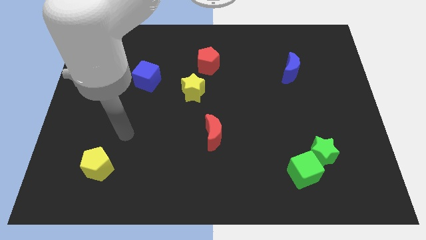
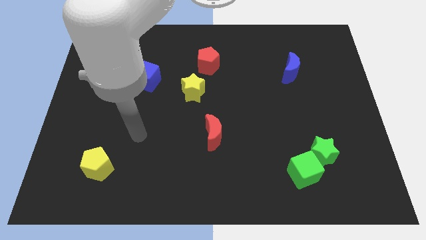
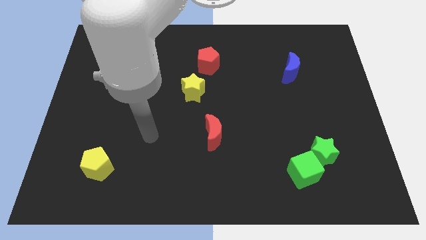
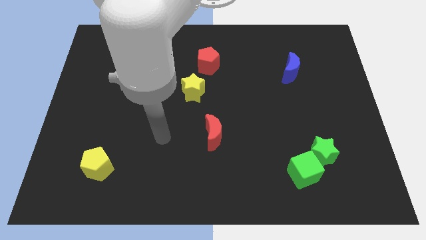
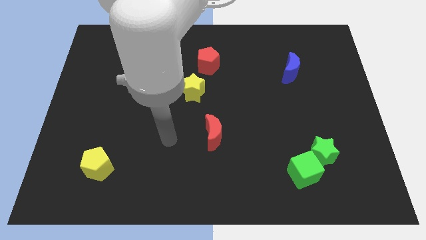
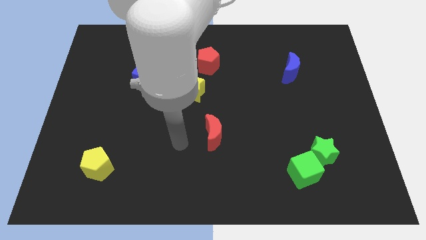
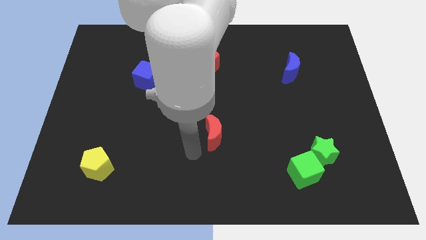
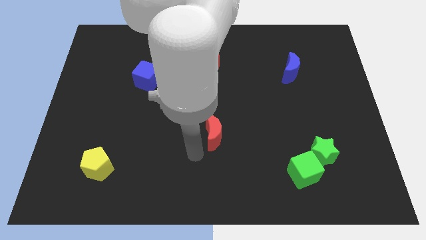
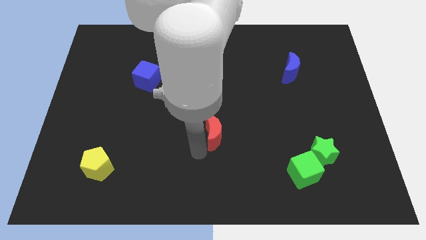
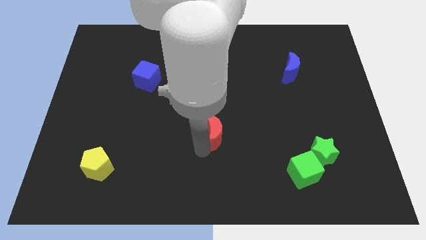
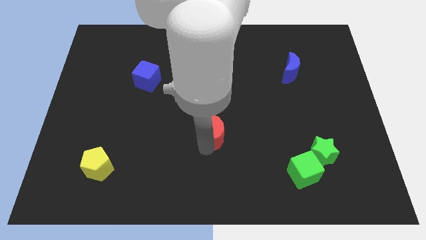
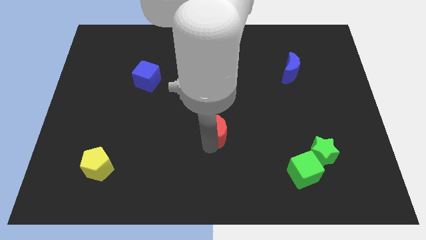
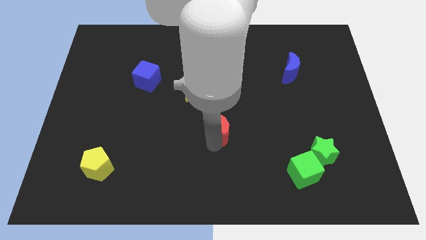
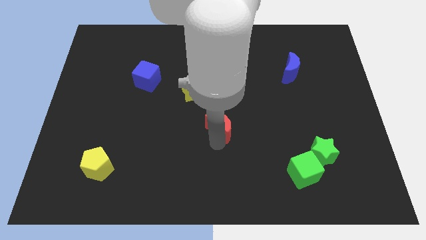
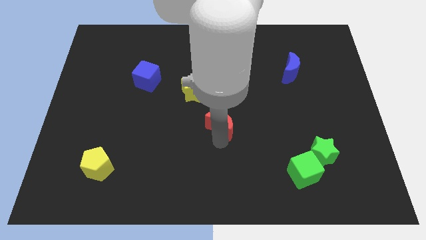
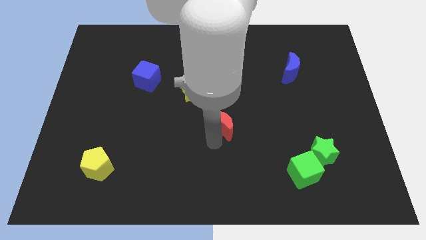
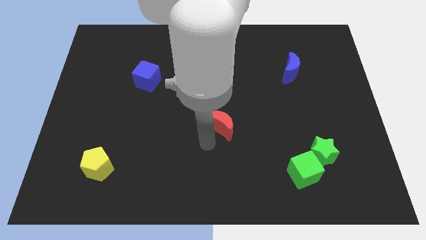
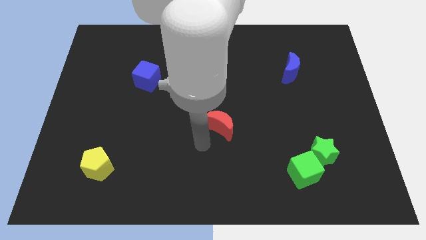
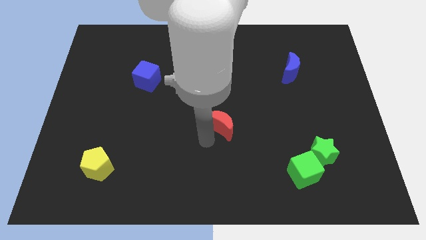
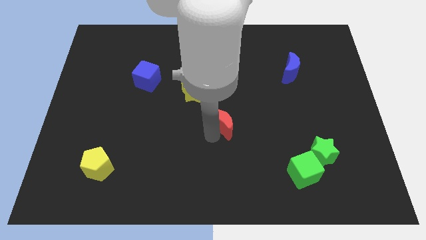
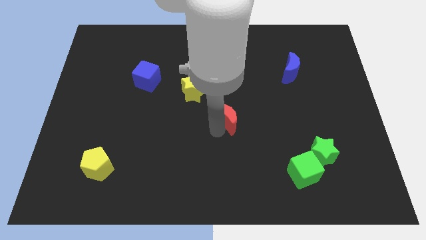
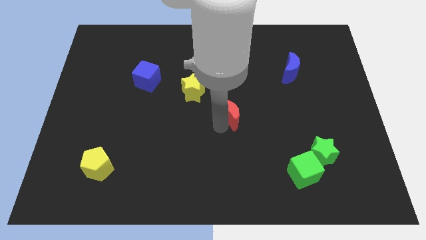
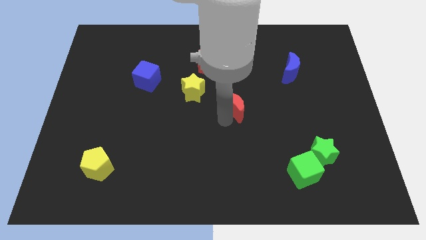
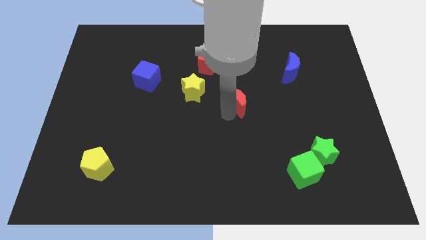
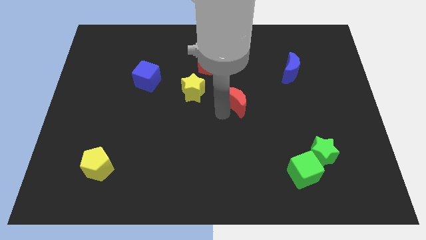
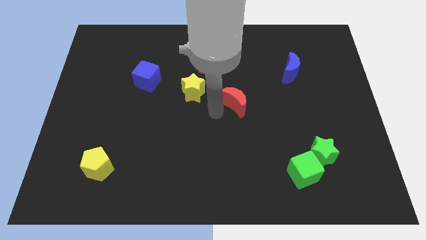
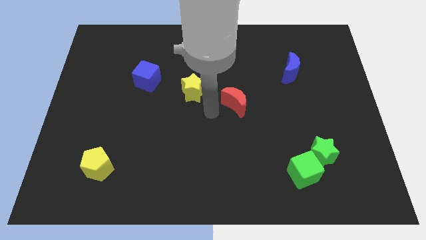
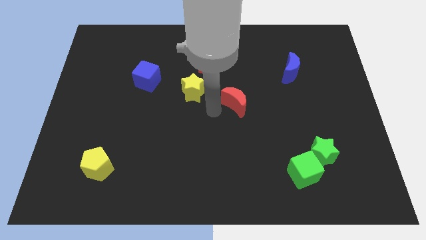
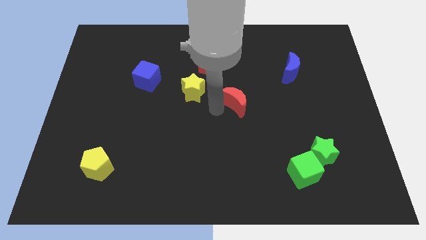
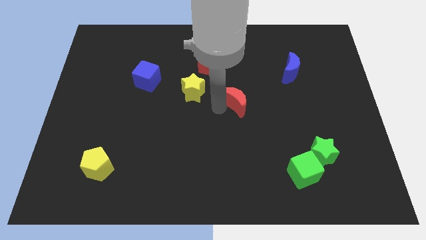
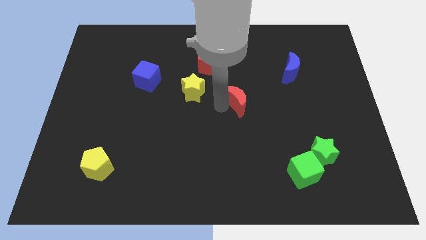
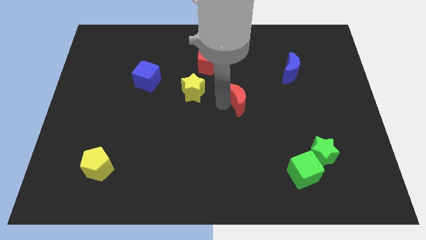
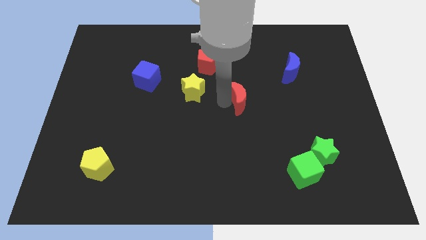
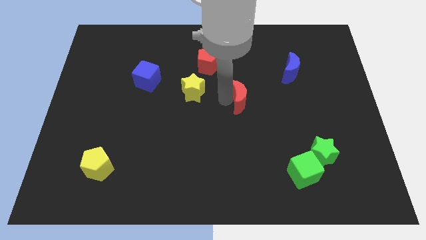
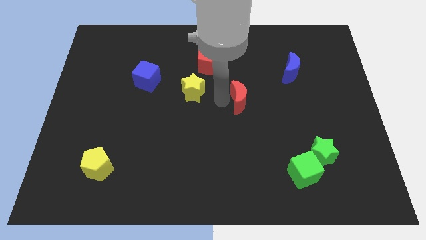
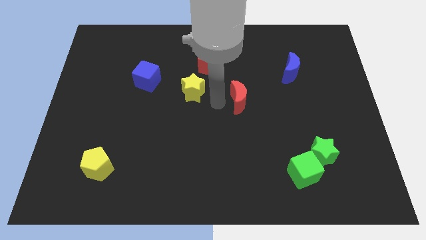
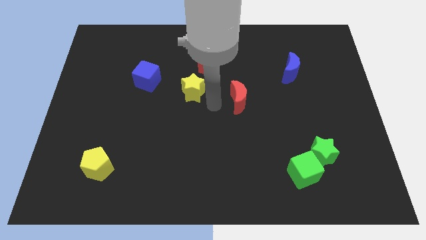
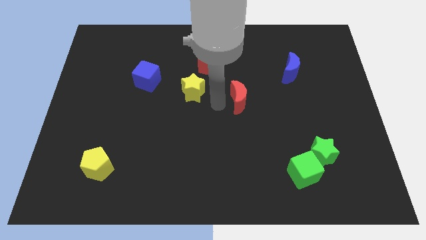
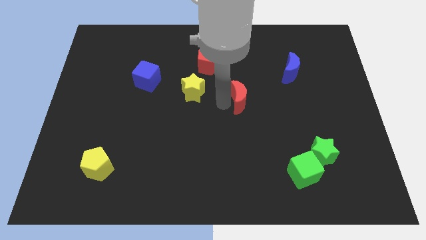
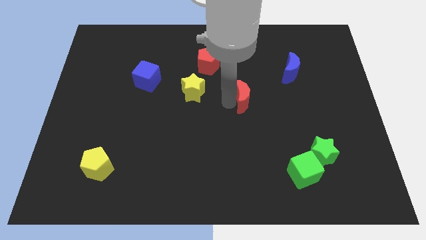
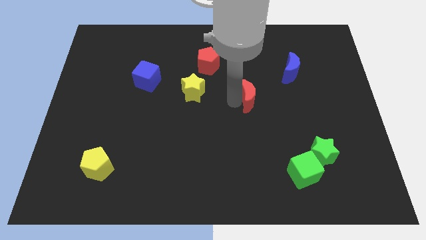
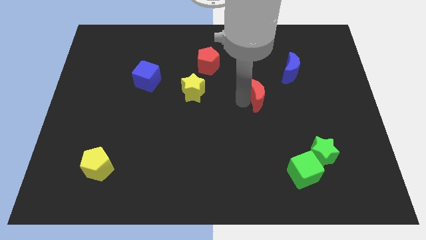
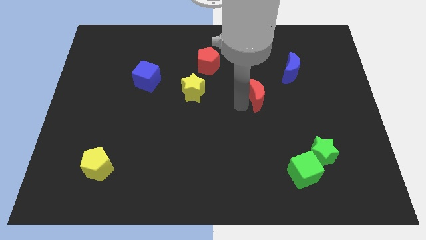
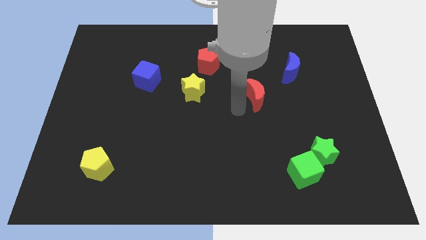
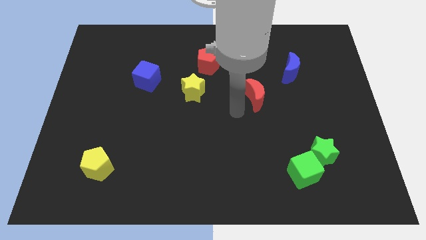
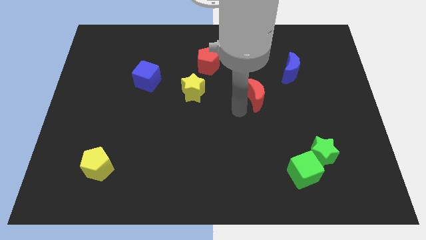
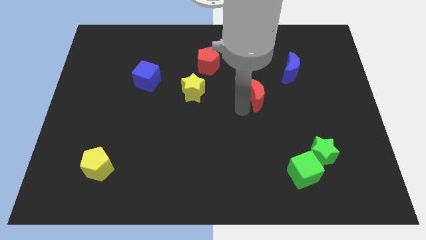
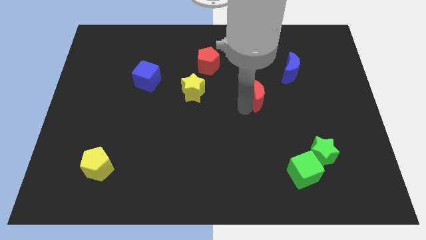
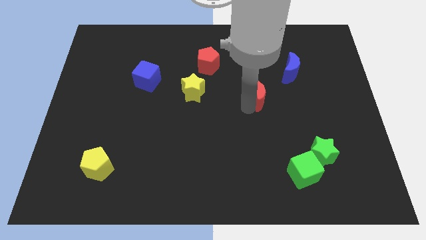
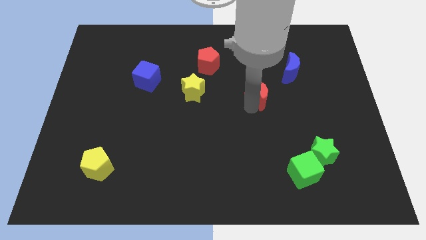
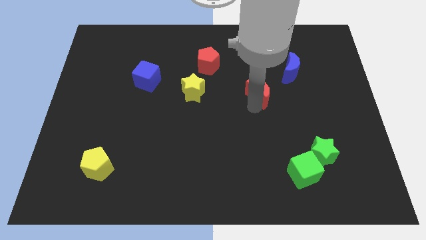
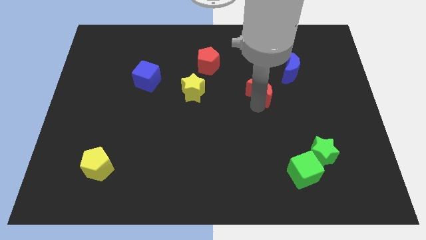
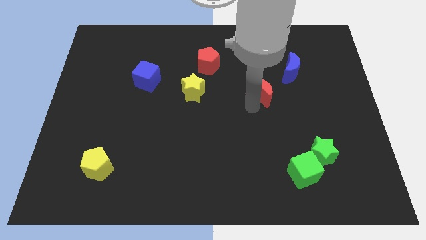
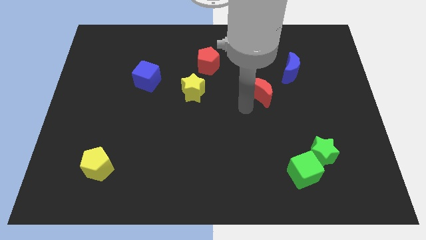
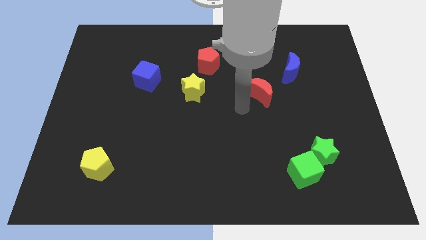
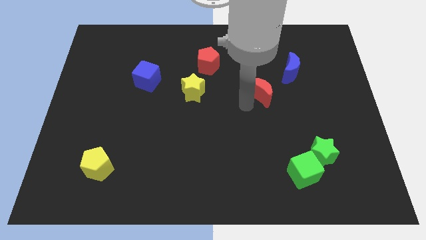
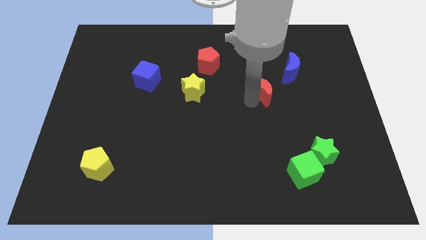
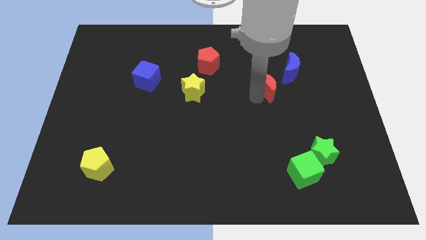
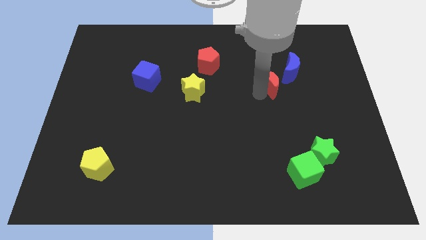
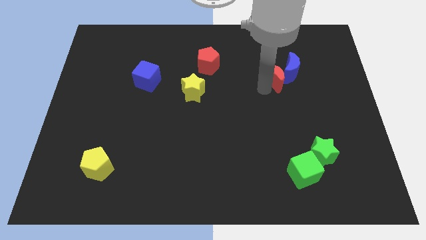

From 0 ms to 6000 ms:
slide the red moon to the blue moon

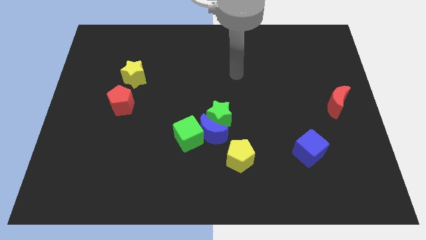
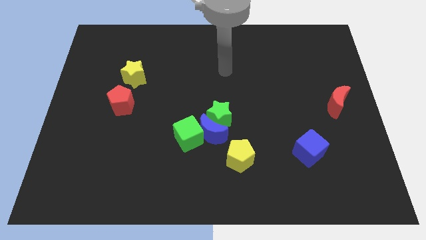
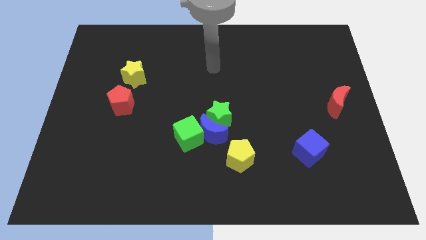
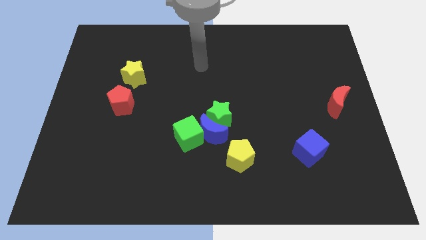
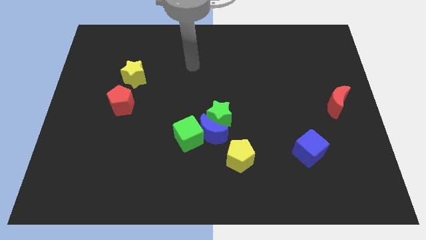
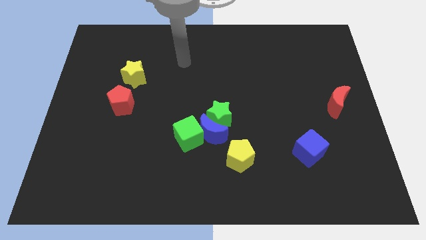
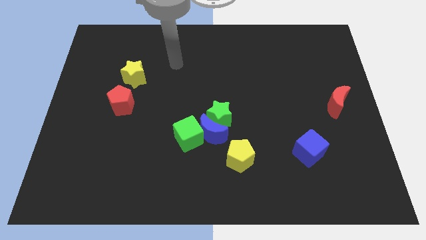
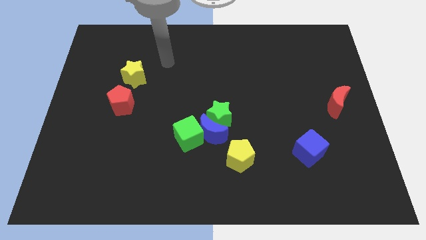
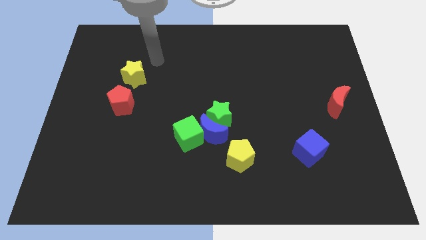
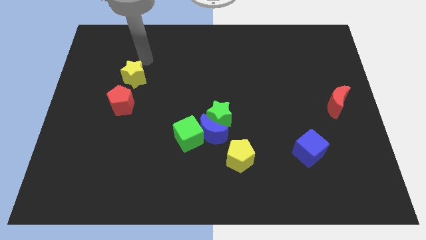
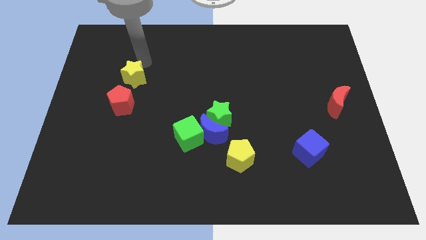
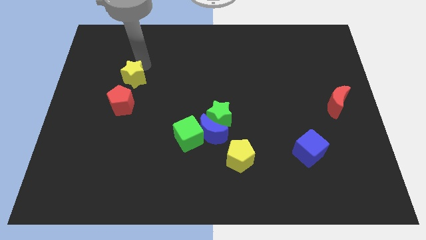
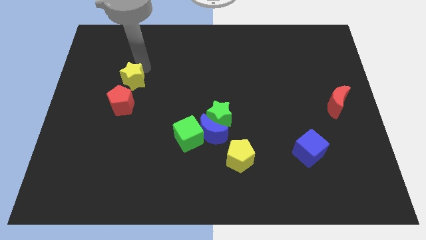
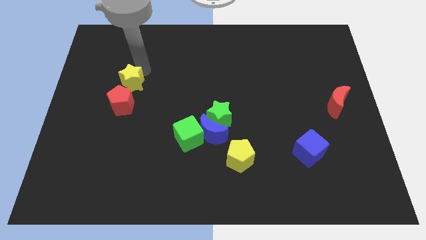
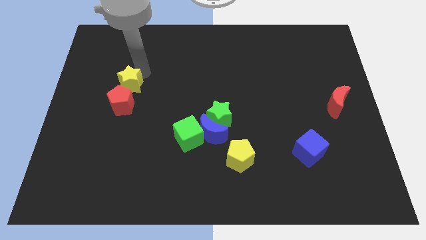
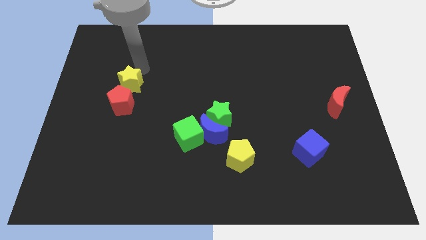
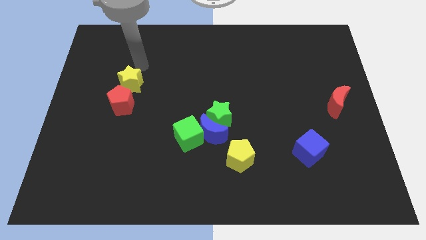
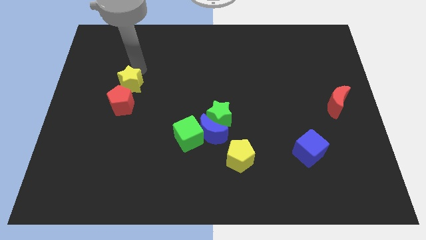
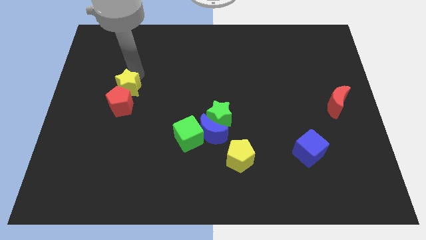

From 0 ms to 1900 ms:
slide the yellow star next to the red pentagon
